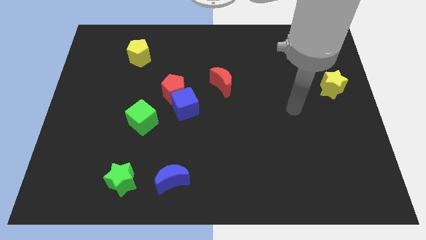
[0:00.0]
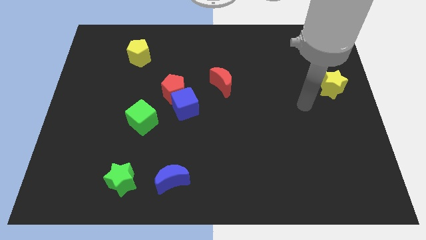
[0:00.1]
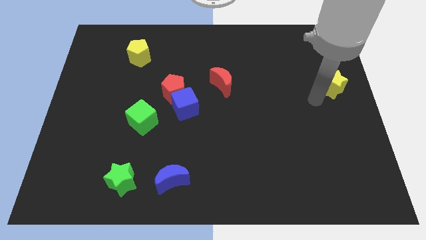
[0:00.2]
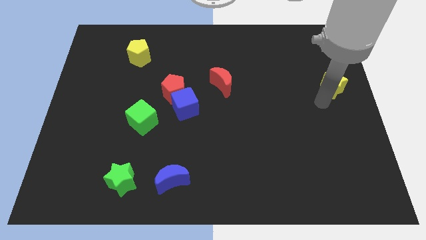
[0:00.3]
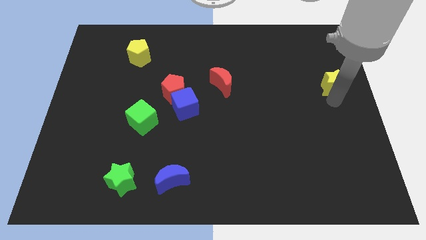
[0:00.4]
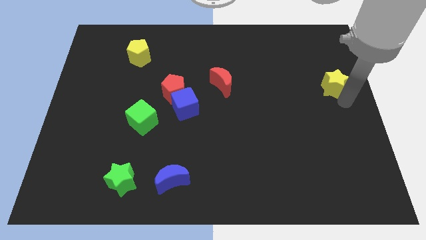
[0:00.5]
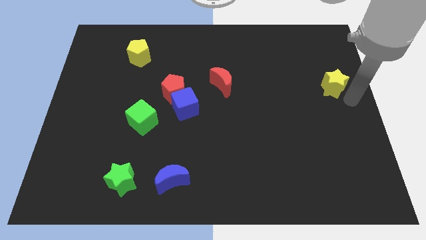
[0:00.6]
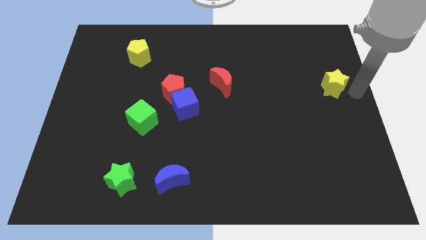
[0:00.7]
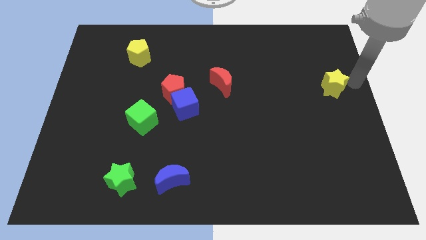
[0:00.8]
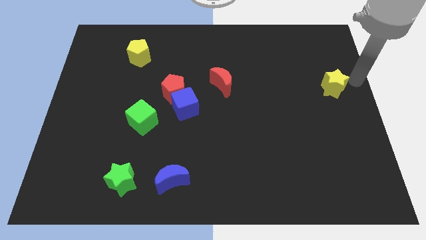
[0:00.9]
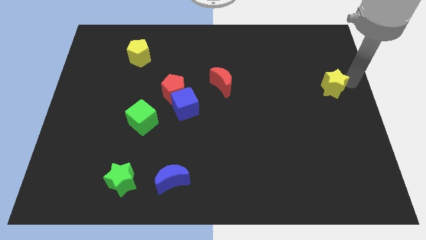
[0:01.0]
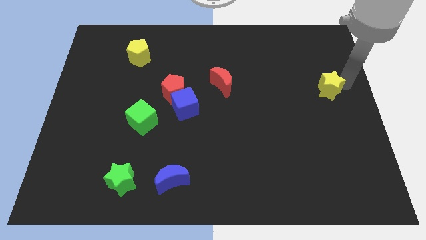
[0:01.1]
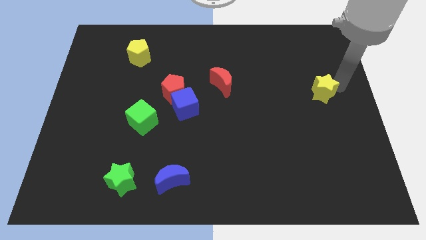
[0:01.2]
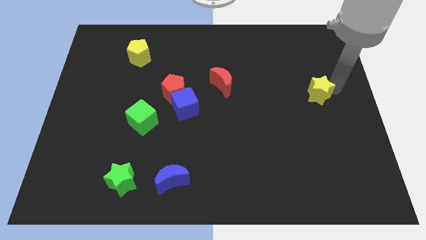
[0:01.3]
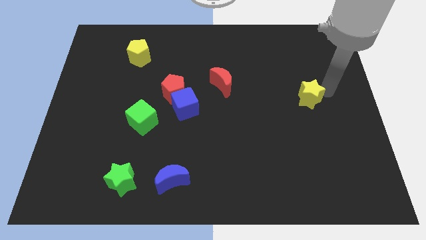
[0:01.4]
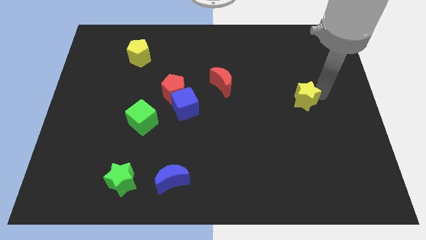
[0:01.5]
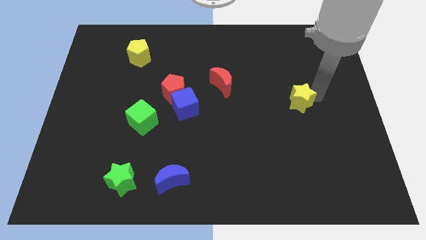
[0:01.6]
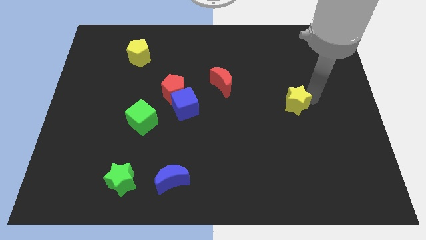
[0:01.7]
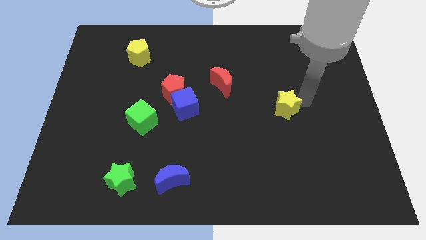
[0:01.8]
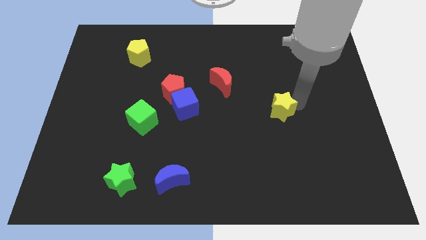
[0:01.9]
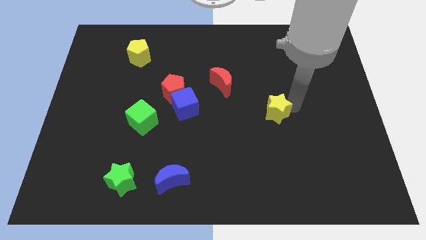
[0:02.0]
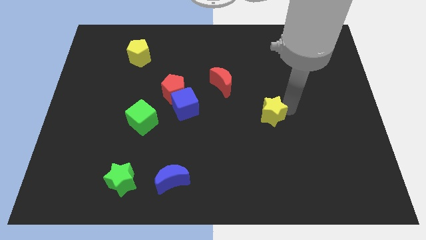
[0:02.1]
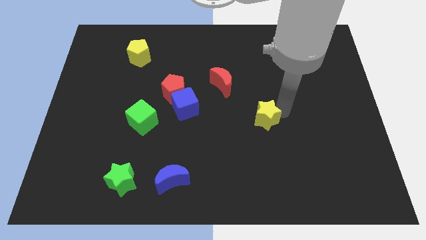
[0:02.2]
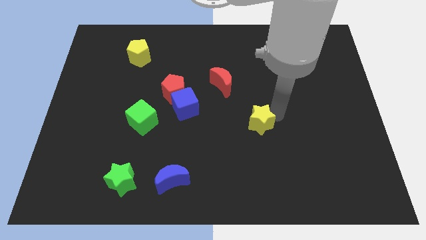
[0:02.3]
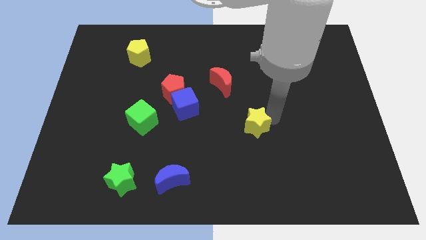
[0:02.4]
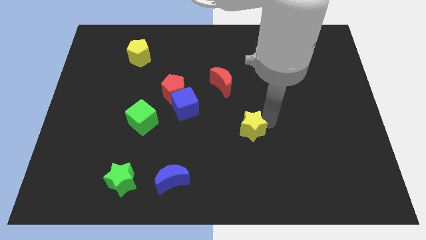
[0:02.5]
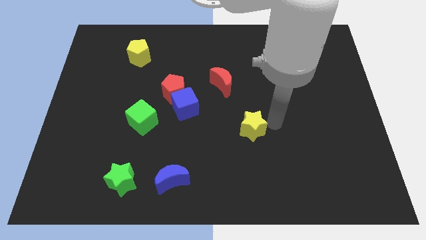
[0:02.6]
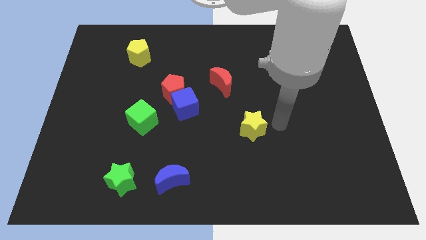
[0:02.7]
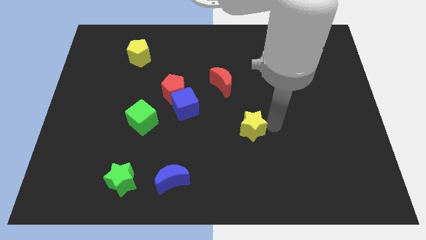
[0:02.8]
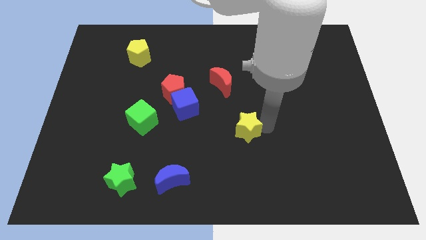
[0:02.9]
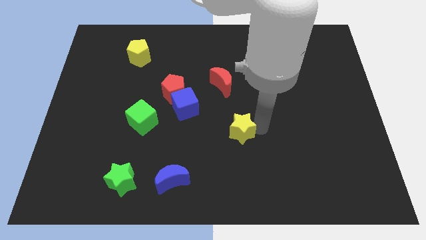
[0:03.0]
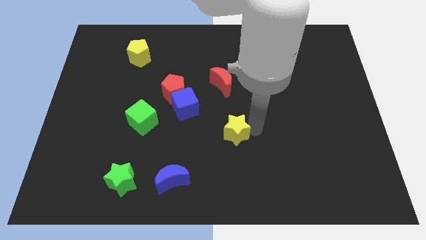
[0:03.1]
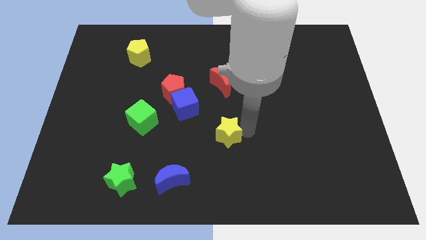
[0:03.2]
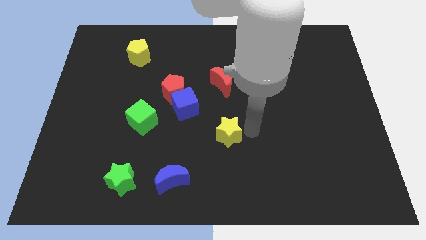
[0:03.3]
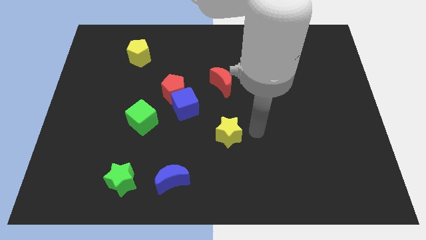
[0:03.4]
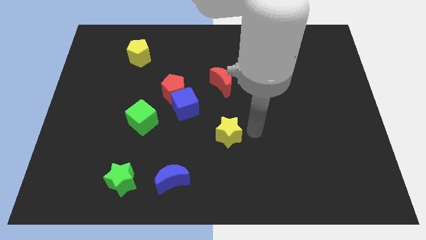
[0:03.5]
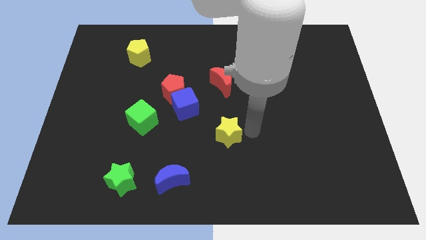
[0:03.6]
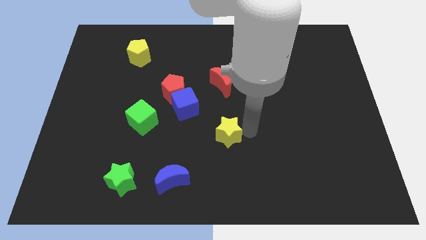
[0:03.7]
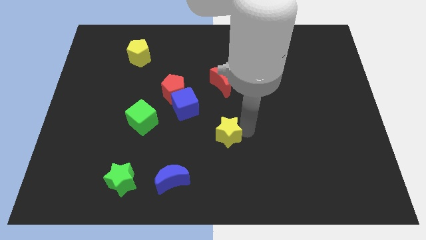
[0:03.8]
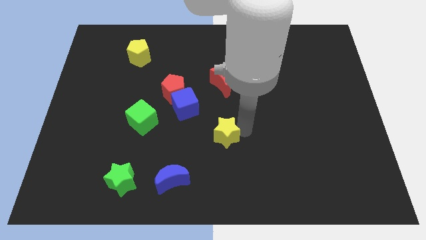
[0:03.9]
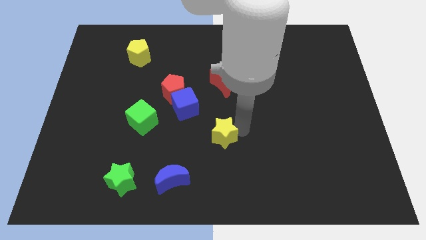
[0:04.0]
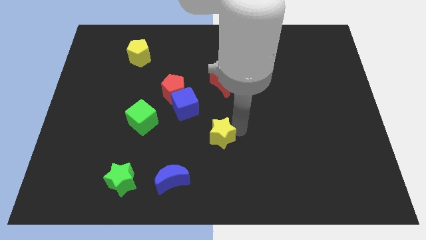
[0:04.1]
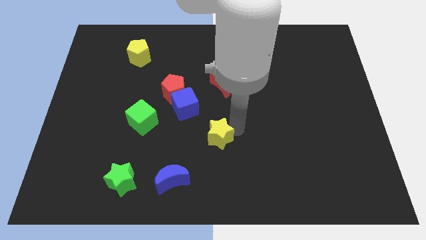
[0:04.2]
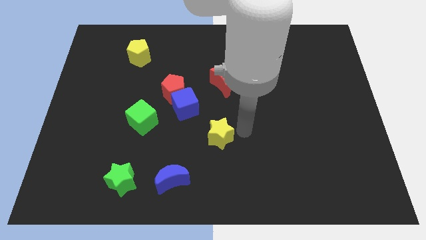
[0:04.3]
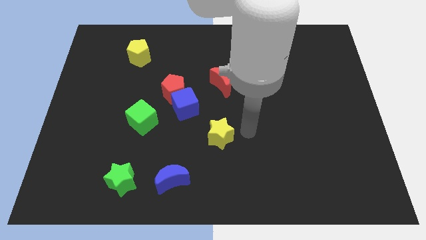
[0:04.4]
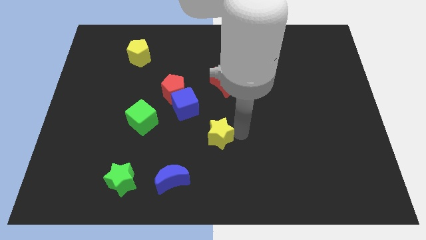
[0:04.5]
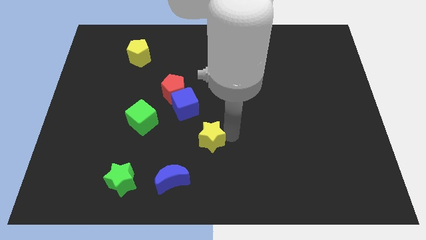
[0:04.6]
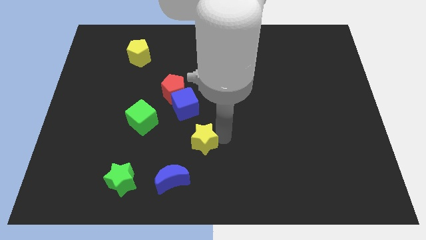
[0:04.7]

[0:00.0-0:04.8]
push the yellow star below the blue cube

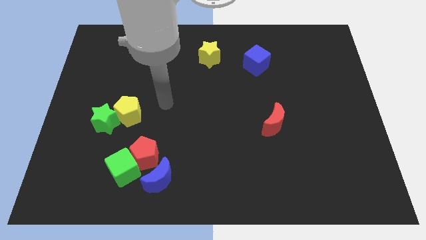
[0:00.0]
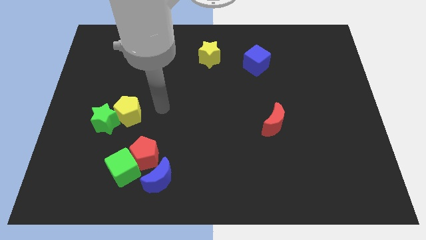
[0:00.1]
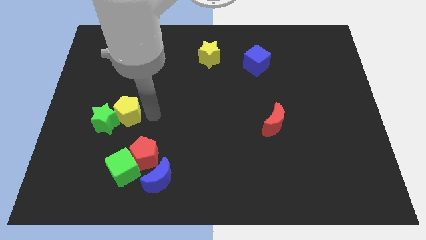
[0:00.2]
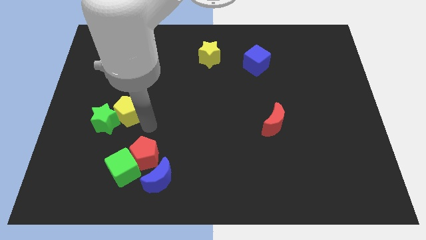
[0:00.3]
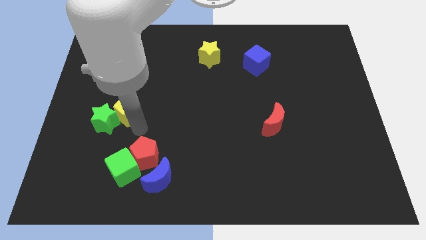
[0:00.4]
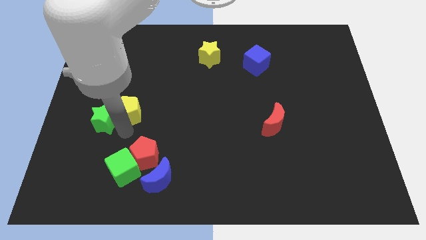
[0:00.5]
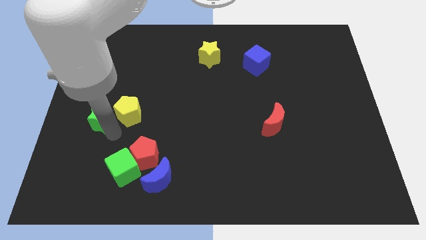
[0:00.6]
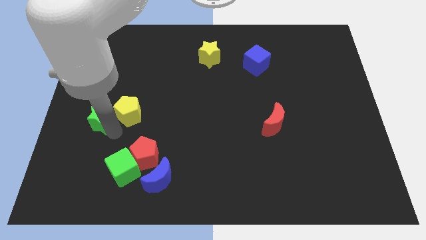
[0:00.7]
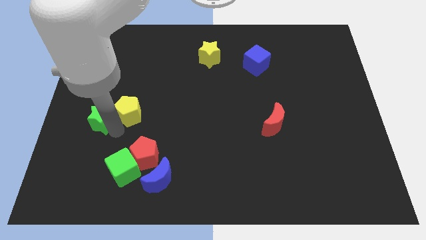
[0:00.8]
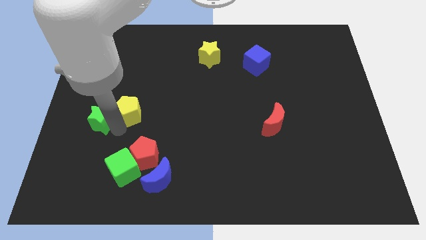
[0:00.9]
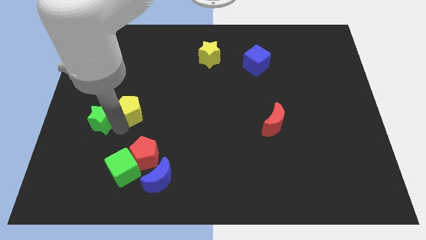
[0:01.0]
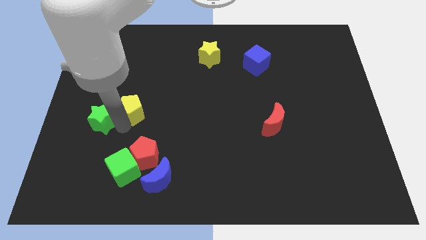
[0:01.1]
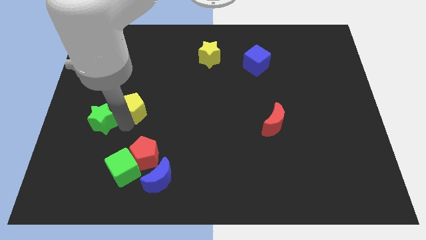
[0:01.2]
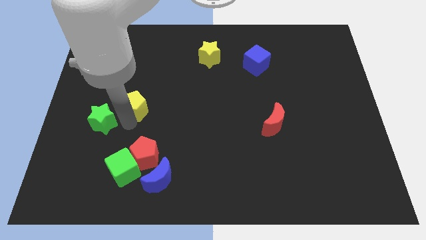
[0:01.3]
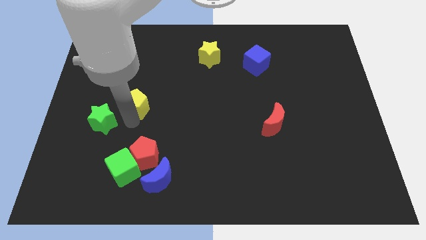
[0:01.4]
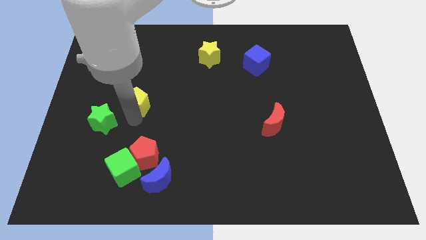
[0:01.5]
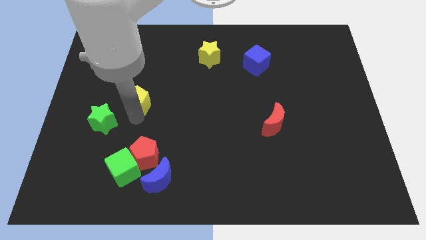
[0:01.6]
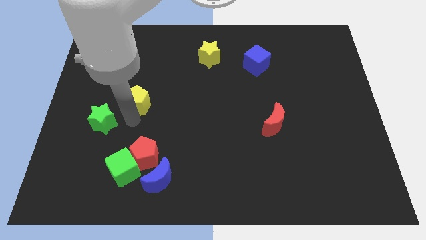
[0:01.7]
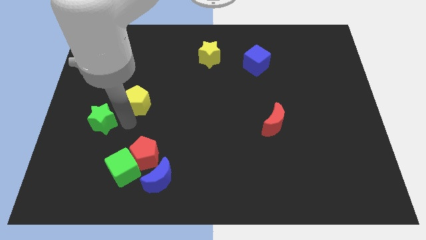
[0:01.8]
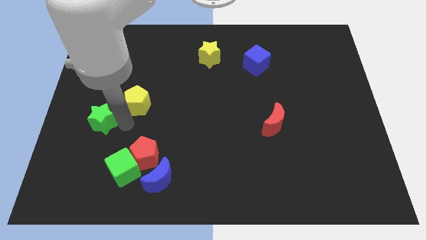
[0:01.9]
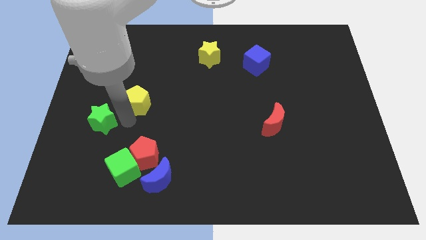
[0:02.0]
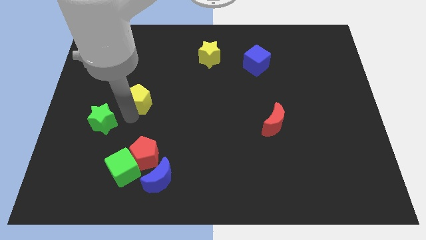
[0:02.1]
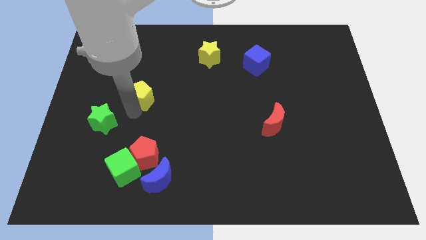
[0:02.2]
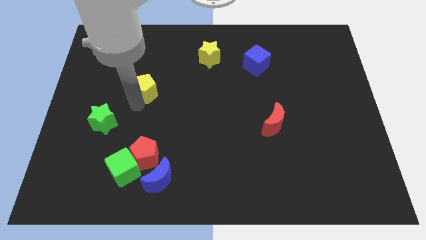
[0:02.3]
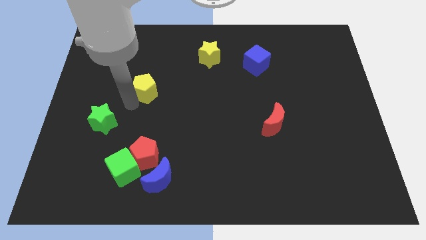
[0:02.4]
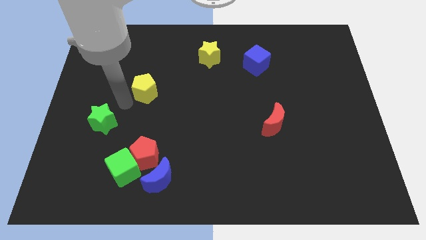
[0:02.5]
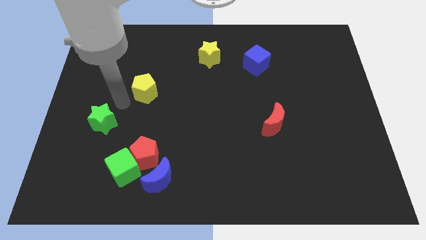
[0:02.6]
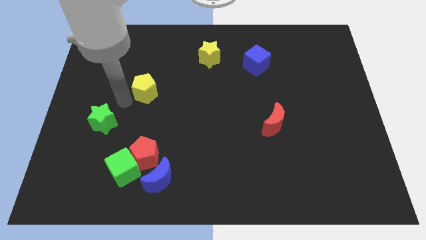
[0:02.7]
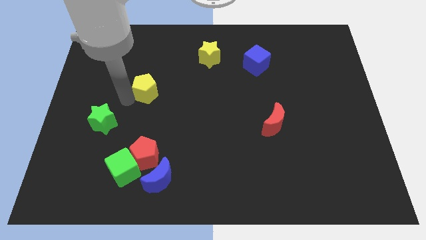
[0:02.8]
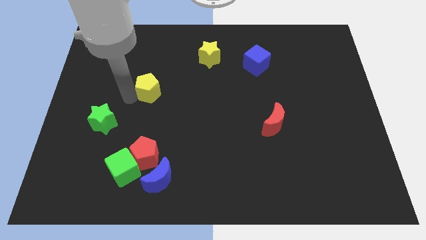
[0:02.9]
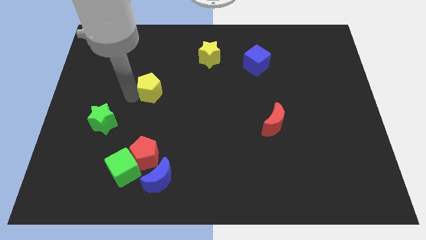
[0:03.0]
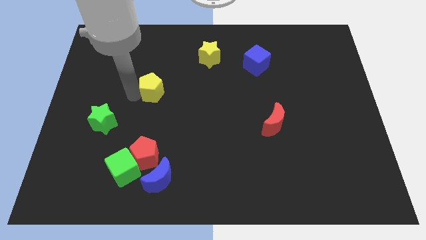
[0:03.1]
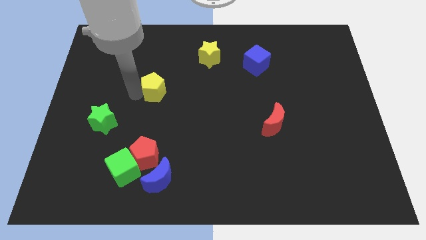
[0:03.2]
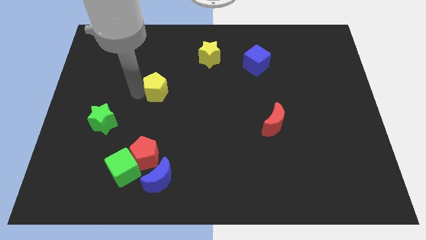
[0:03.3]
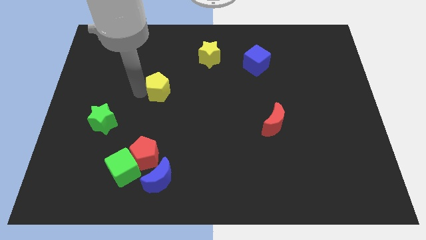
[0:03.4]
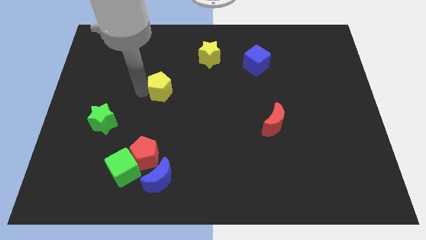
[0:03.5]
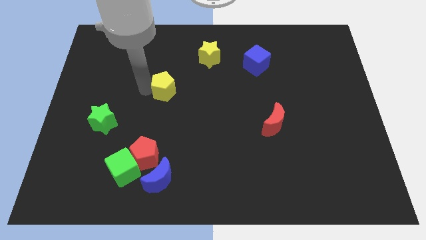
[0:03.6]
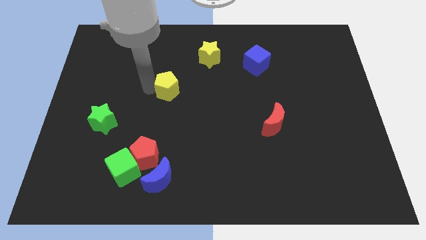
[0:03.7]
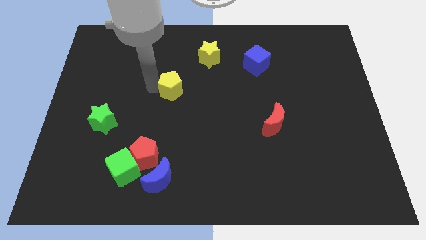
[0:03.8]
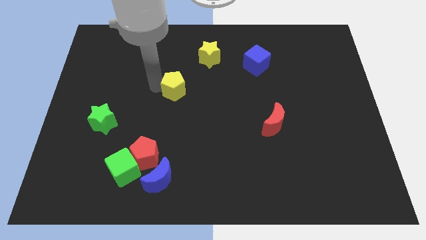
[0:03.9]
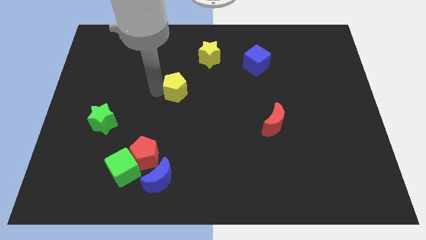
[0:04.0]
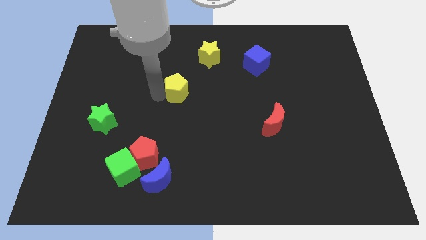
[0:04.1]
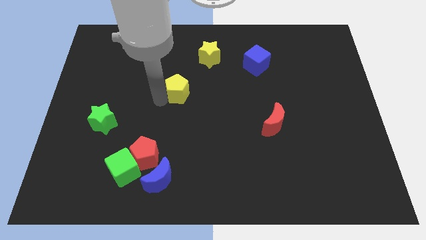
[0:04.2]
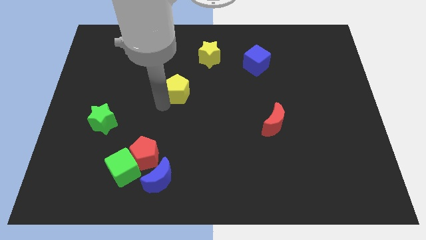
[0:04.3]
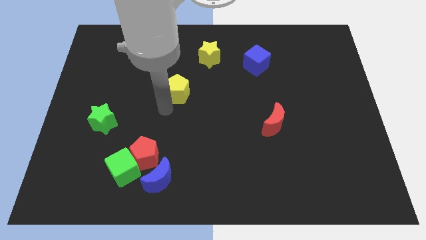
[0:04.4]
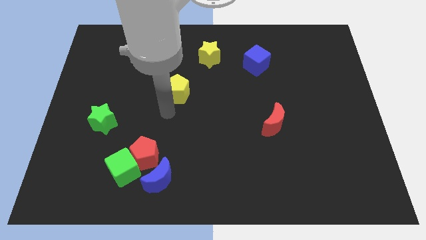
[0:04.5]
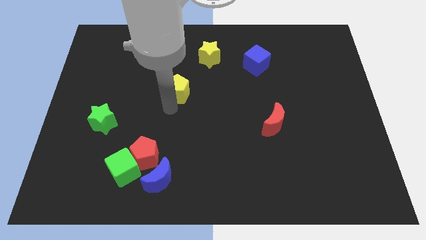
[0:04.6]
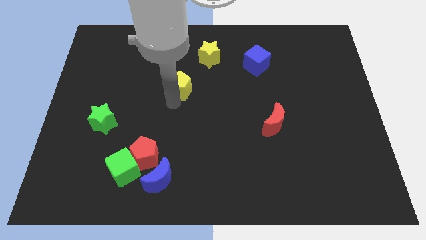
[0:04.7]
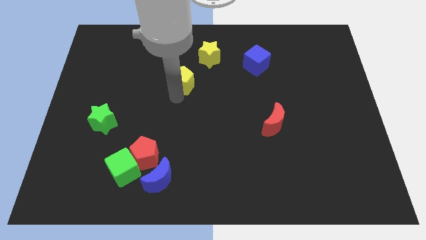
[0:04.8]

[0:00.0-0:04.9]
move the yellow pentagon to the bottom left of the yellow star
